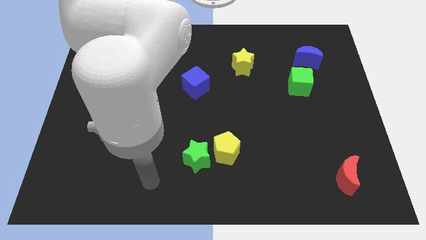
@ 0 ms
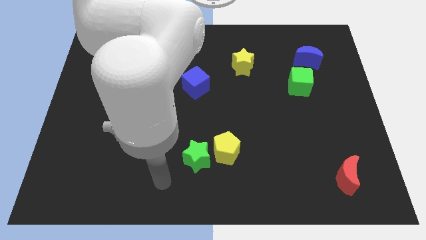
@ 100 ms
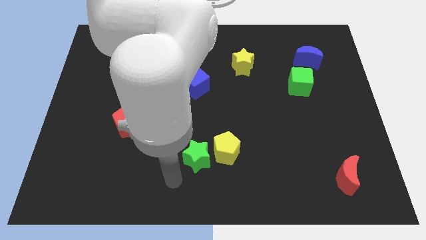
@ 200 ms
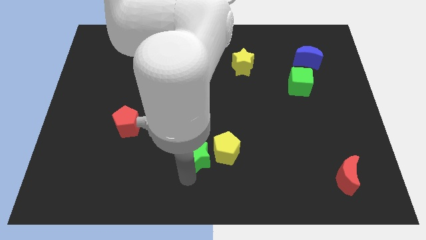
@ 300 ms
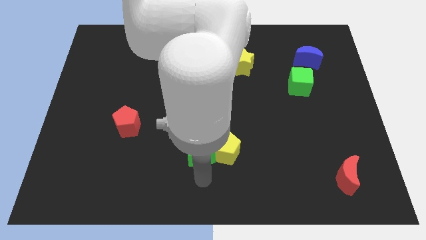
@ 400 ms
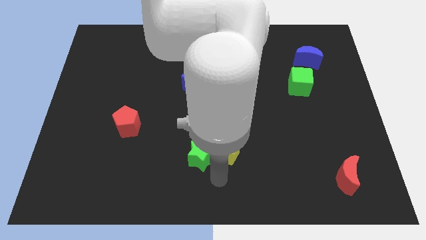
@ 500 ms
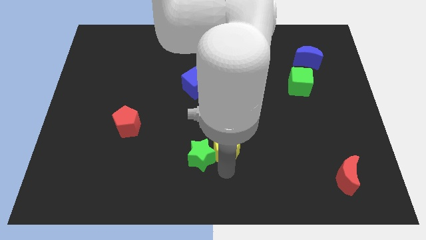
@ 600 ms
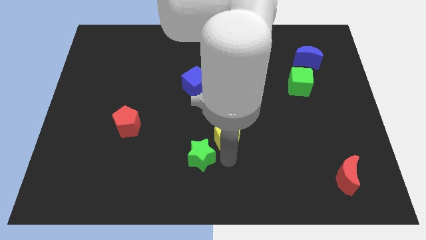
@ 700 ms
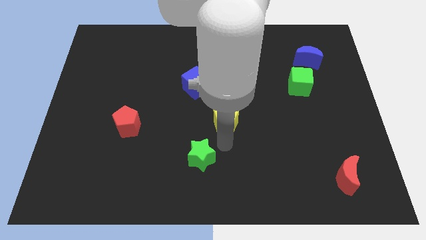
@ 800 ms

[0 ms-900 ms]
separate the green star from the yellow pentagon

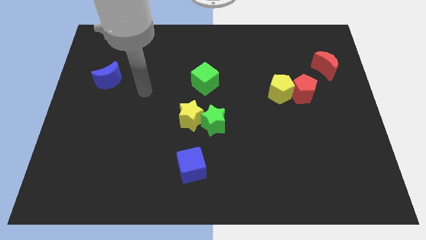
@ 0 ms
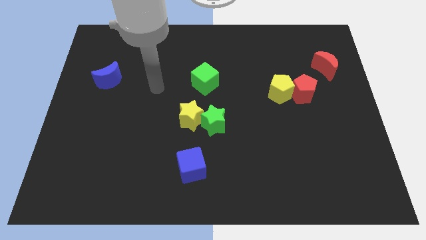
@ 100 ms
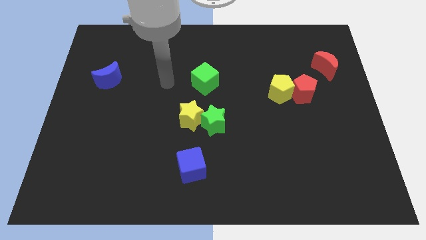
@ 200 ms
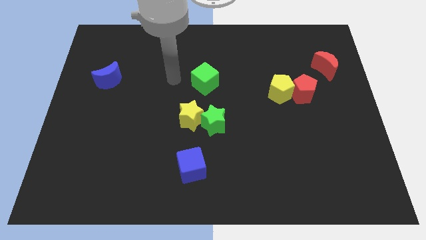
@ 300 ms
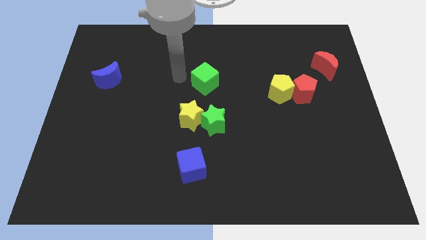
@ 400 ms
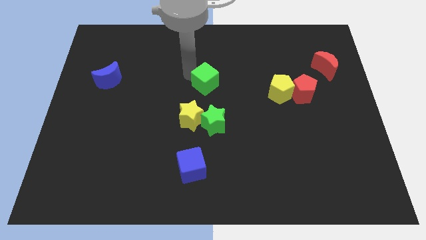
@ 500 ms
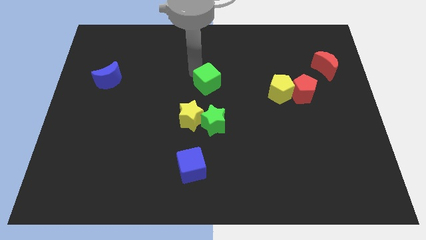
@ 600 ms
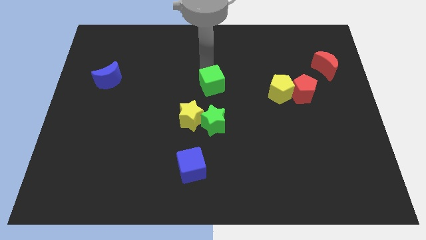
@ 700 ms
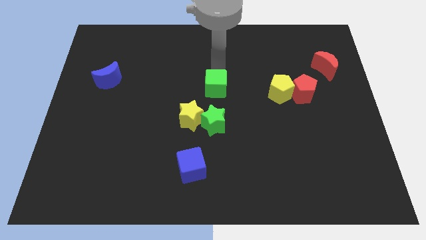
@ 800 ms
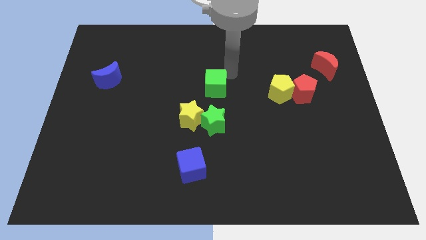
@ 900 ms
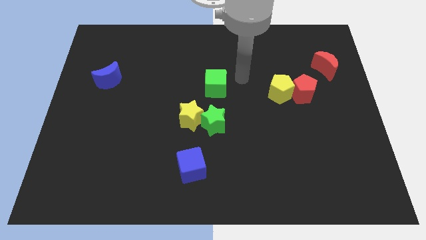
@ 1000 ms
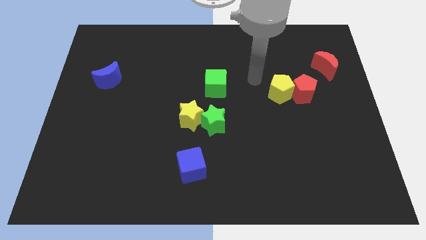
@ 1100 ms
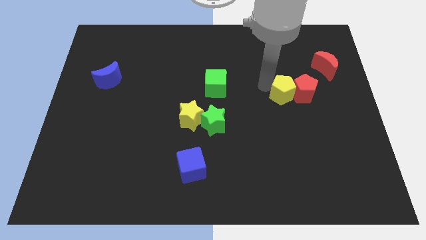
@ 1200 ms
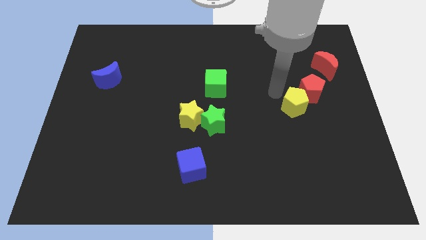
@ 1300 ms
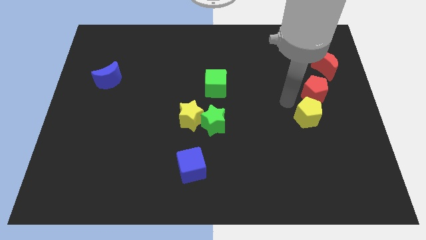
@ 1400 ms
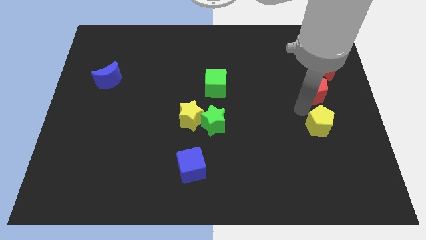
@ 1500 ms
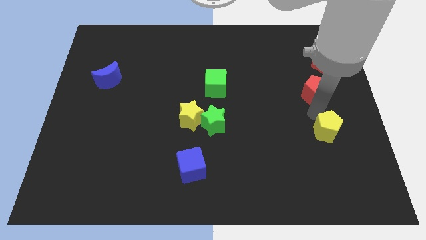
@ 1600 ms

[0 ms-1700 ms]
pull the red pentagon apart from the yellow pentagon

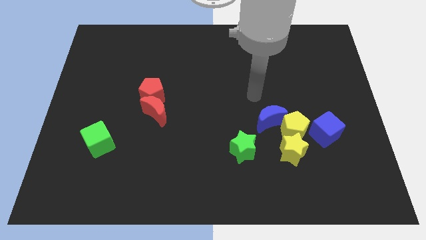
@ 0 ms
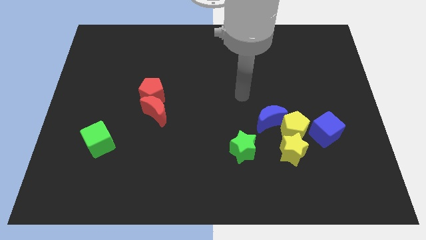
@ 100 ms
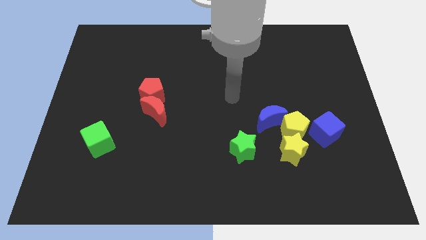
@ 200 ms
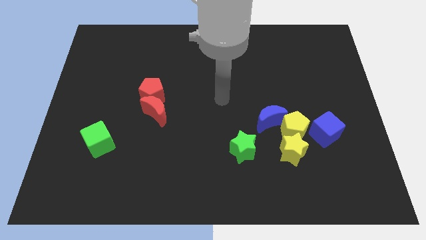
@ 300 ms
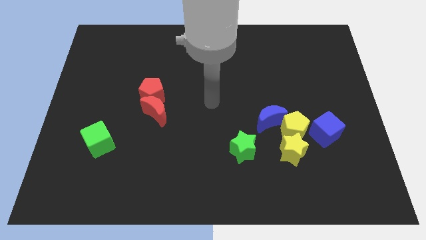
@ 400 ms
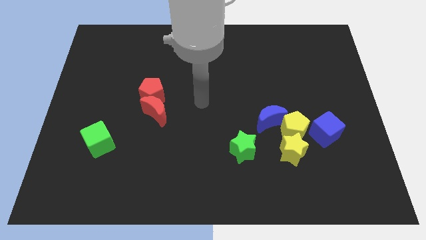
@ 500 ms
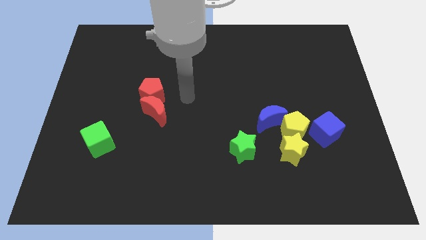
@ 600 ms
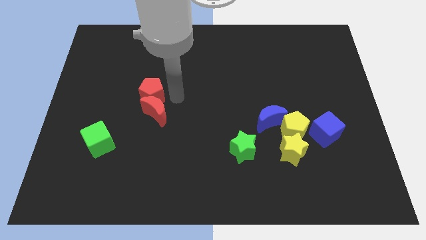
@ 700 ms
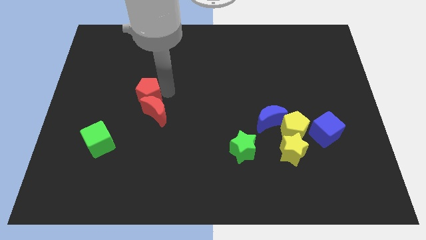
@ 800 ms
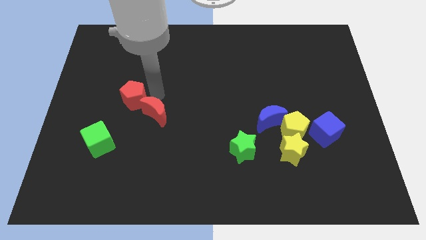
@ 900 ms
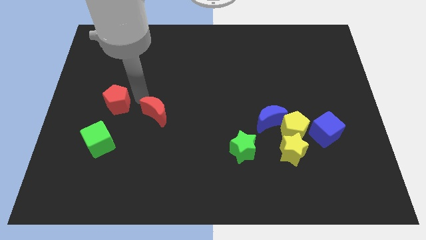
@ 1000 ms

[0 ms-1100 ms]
pull the red moon apart from the red pentagon

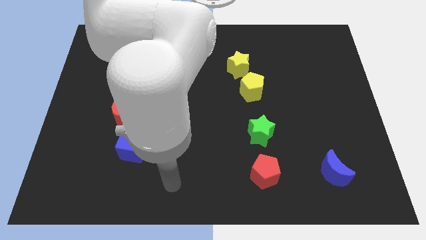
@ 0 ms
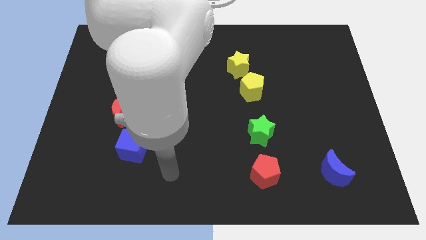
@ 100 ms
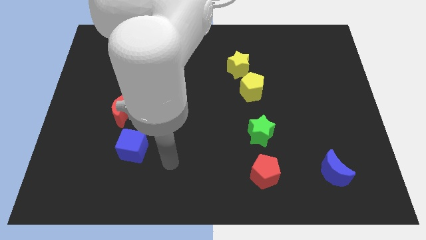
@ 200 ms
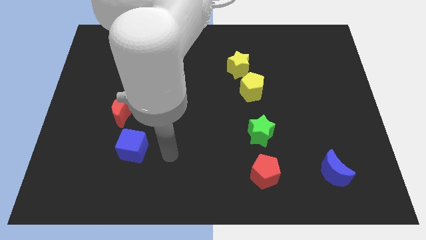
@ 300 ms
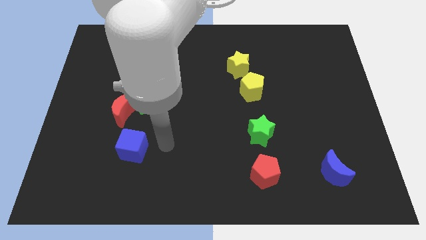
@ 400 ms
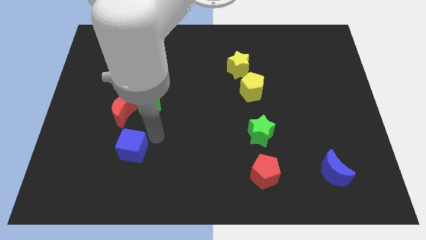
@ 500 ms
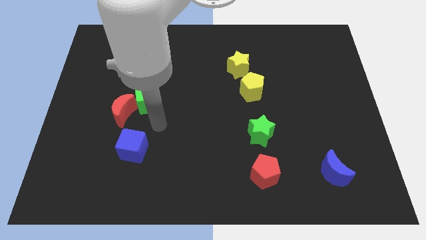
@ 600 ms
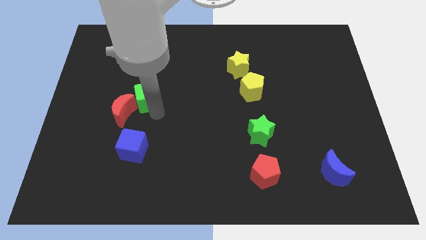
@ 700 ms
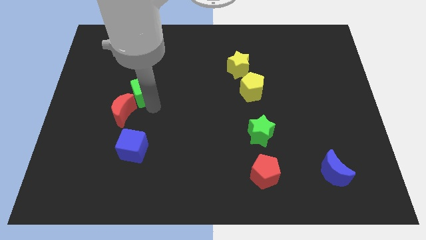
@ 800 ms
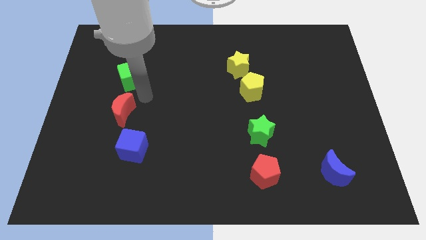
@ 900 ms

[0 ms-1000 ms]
move the red moon away from the green cube

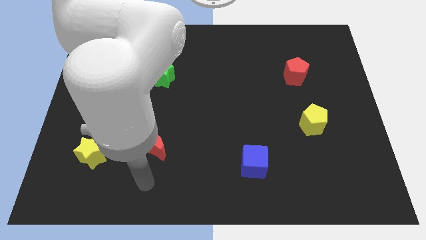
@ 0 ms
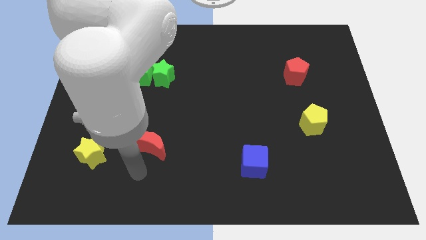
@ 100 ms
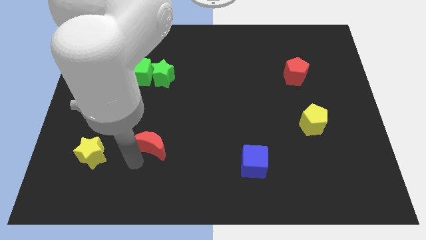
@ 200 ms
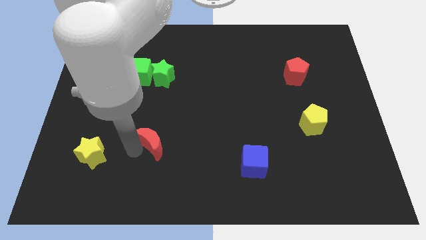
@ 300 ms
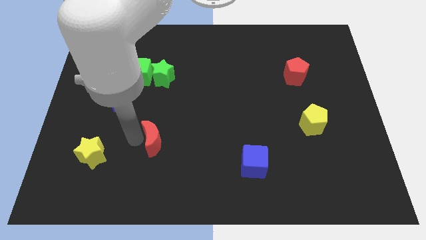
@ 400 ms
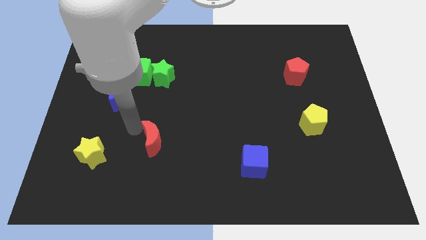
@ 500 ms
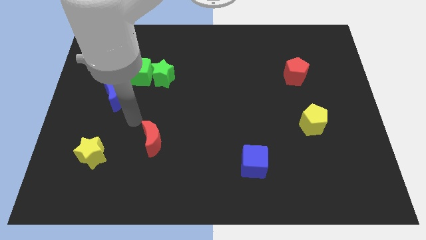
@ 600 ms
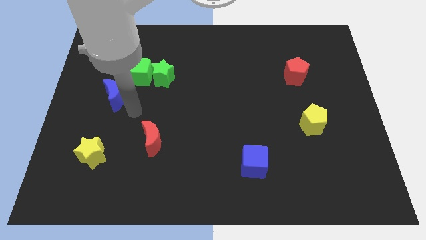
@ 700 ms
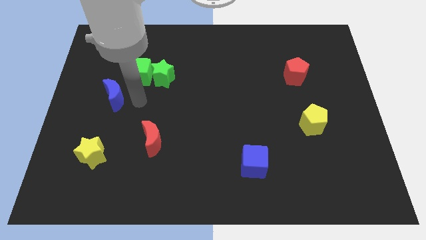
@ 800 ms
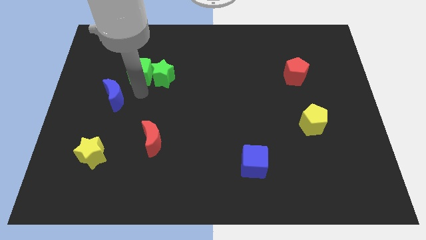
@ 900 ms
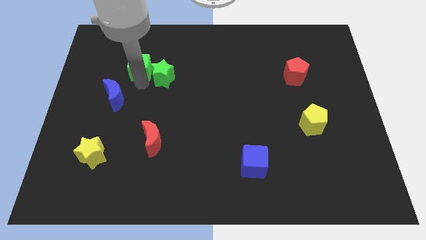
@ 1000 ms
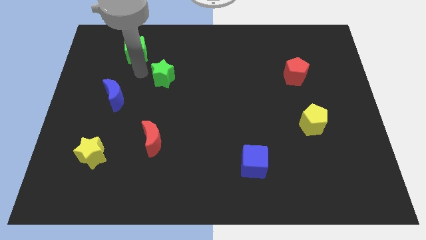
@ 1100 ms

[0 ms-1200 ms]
move the green star away from the green cube

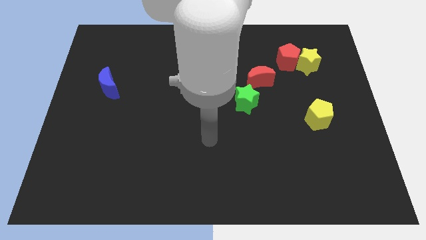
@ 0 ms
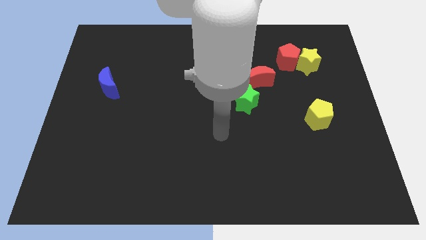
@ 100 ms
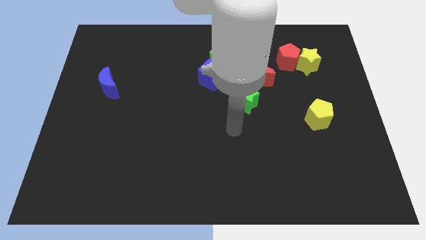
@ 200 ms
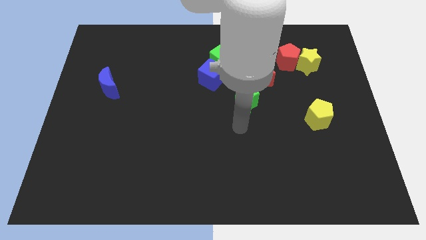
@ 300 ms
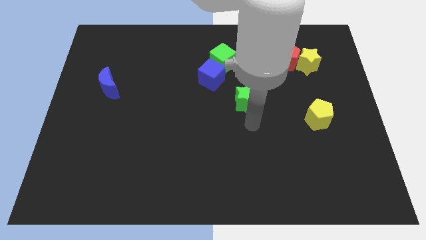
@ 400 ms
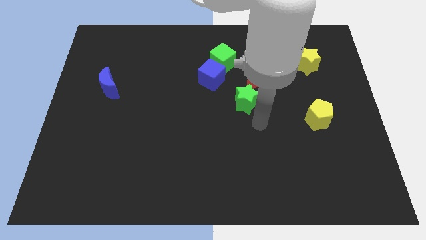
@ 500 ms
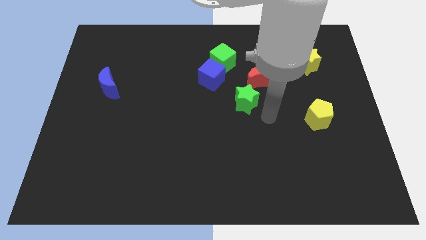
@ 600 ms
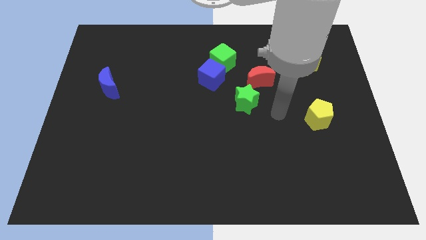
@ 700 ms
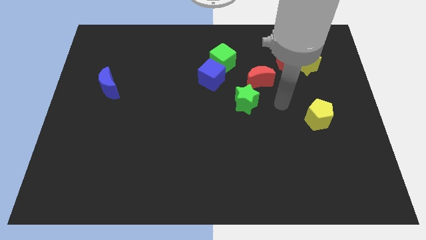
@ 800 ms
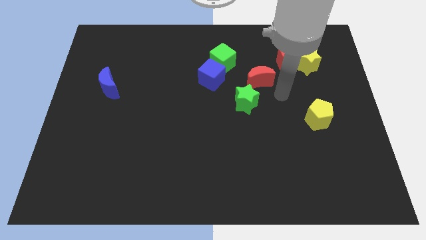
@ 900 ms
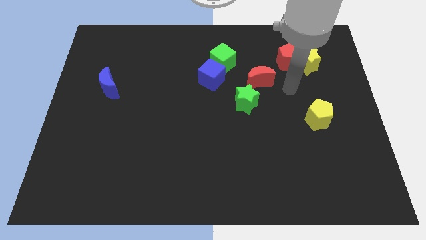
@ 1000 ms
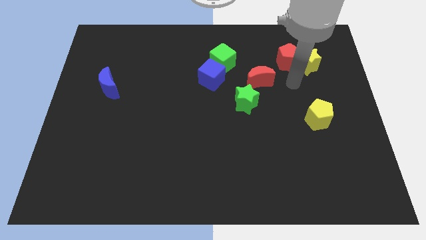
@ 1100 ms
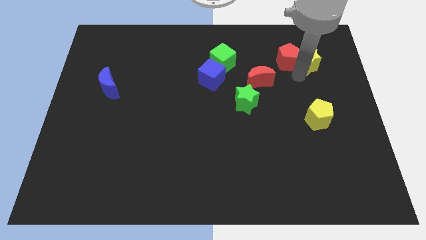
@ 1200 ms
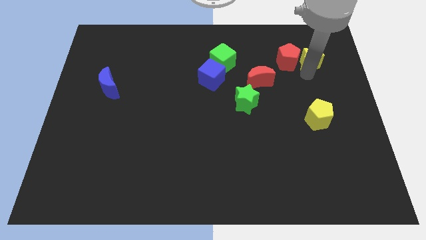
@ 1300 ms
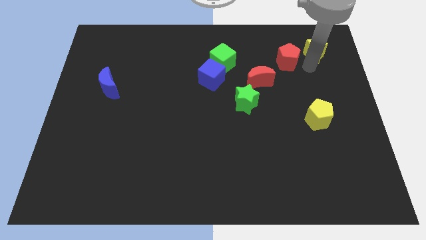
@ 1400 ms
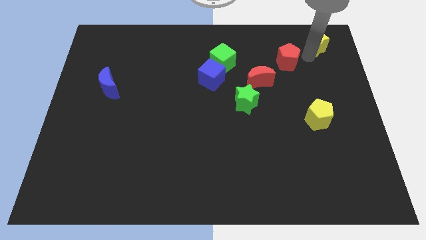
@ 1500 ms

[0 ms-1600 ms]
pull the red pentagon apart from the yellow star

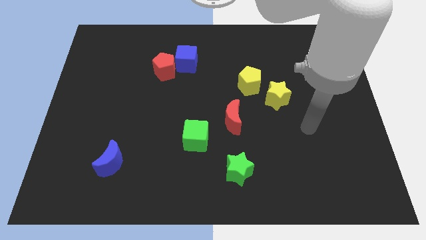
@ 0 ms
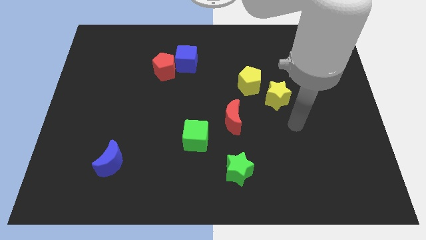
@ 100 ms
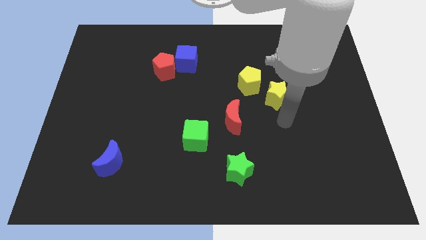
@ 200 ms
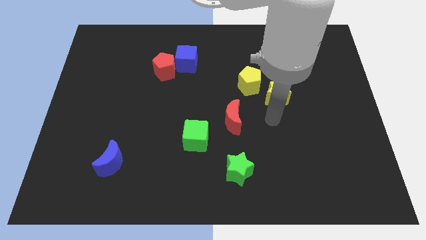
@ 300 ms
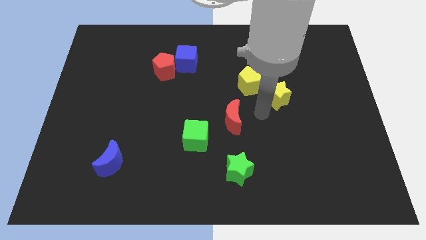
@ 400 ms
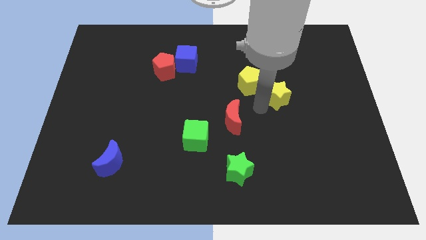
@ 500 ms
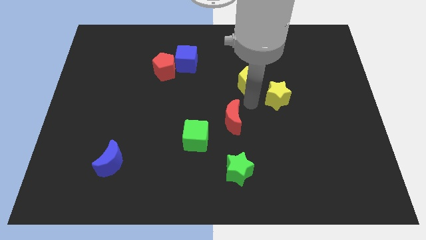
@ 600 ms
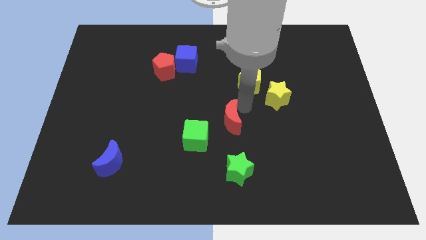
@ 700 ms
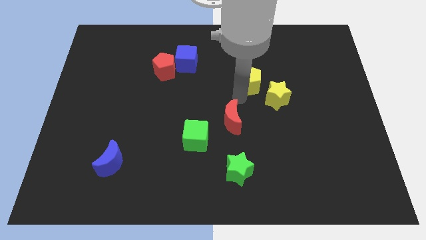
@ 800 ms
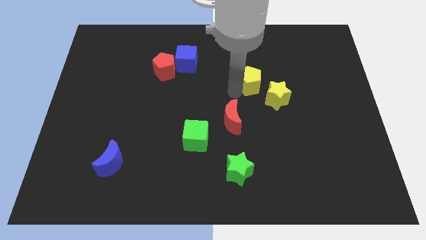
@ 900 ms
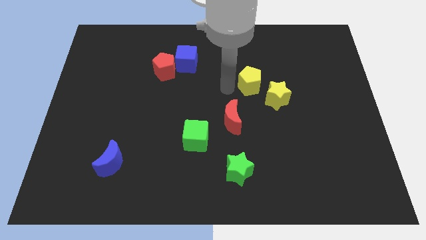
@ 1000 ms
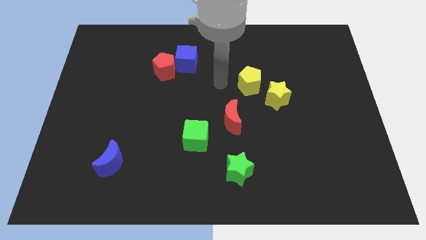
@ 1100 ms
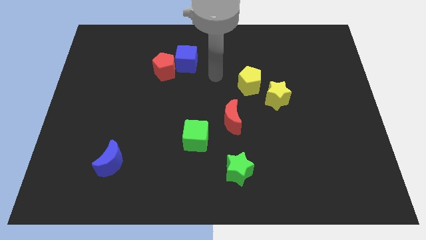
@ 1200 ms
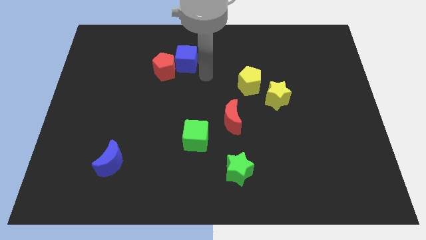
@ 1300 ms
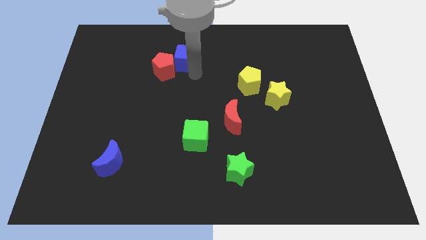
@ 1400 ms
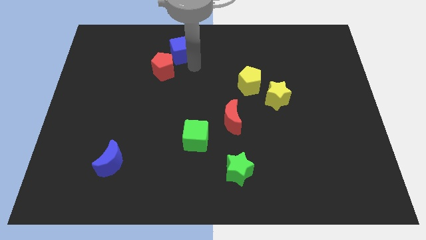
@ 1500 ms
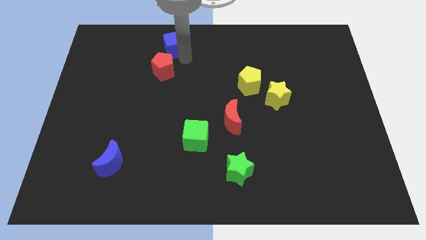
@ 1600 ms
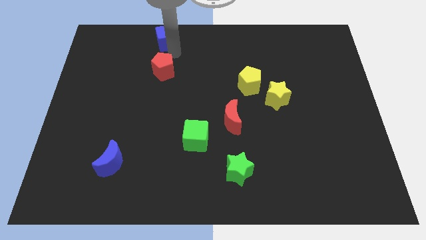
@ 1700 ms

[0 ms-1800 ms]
pull the red pentagon apart from the blue cube
